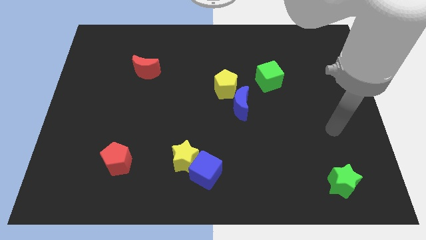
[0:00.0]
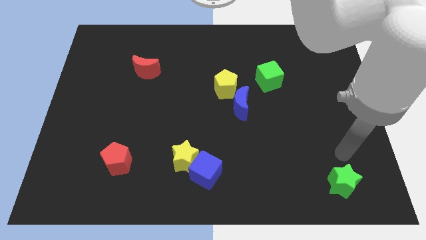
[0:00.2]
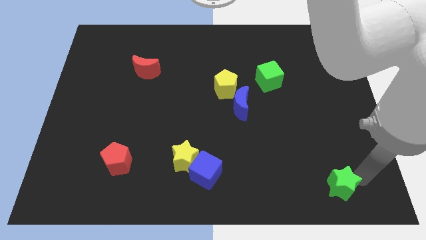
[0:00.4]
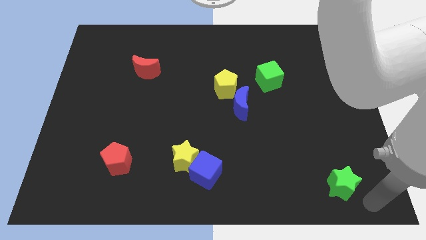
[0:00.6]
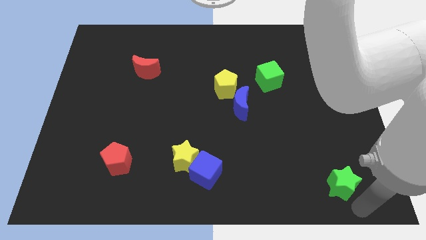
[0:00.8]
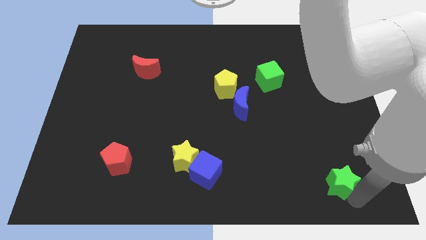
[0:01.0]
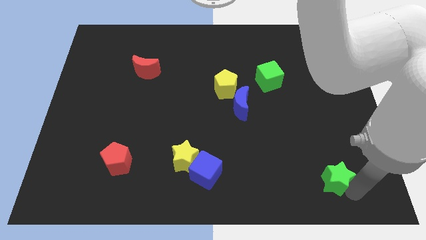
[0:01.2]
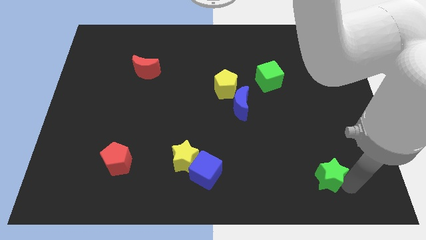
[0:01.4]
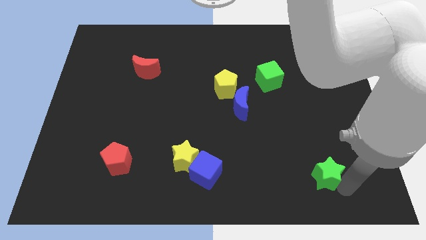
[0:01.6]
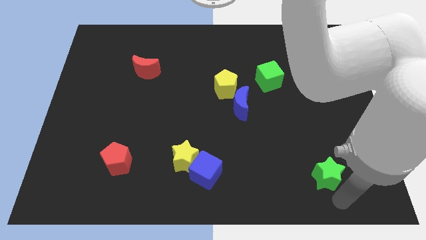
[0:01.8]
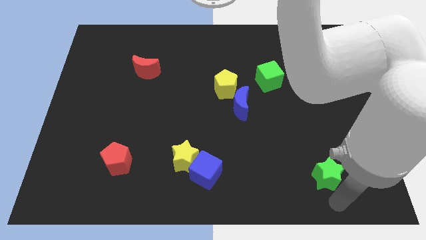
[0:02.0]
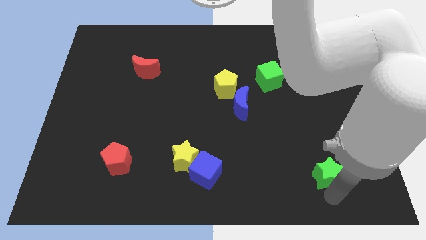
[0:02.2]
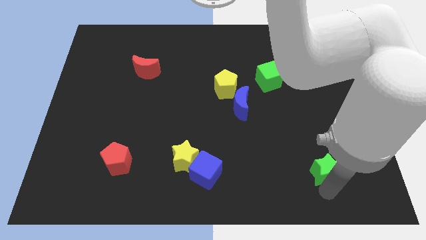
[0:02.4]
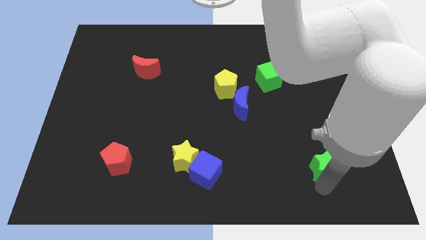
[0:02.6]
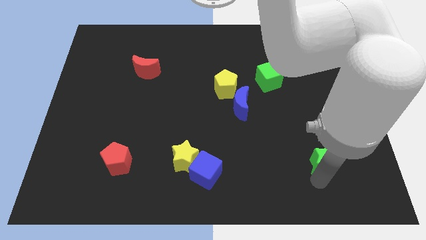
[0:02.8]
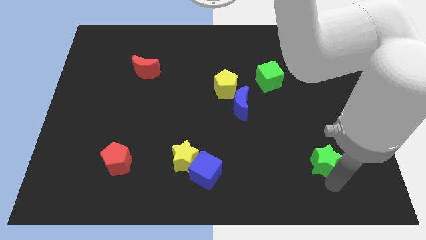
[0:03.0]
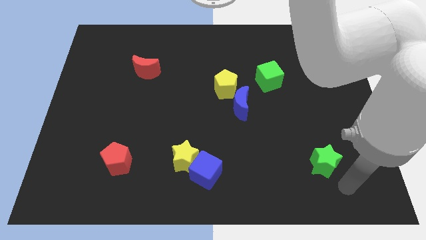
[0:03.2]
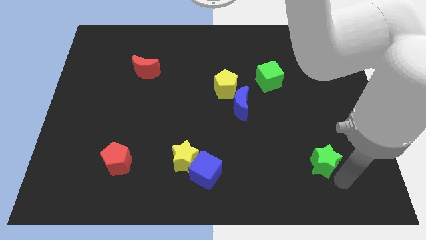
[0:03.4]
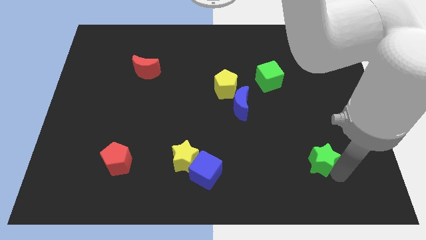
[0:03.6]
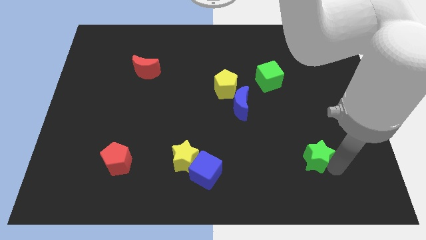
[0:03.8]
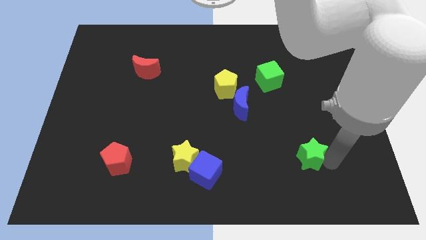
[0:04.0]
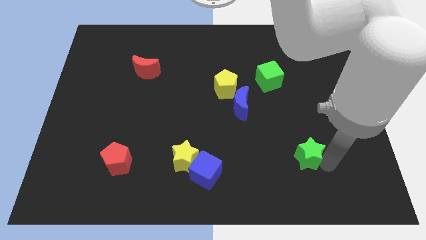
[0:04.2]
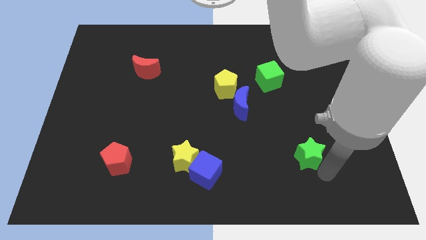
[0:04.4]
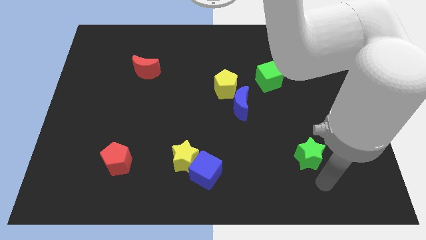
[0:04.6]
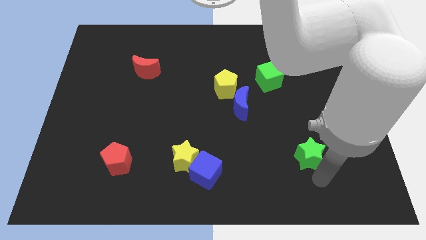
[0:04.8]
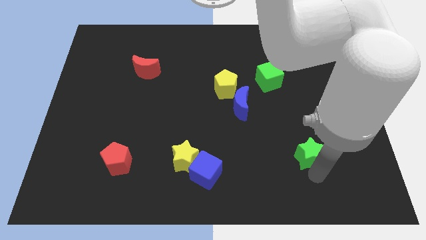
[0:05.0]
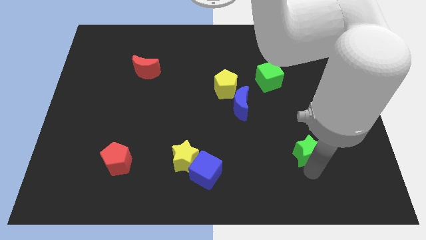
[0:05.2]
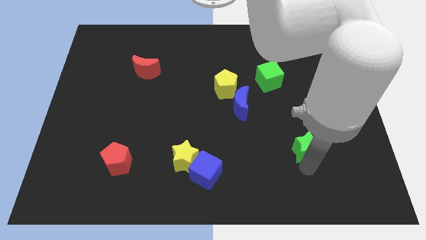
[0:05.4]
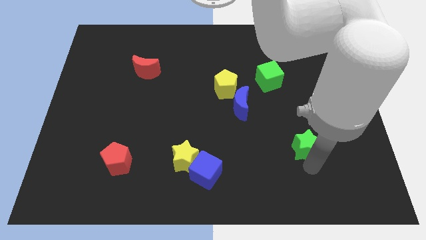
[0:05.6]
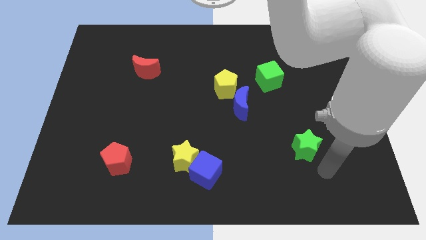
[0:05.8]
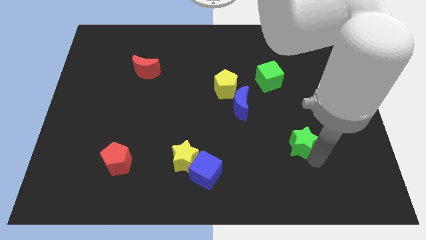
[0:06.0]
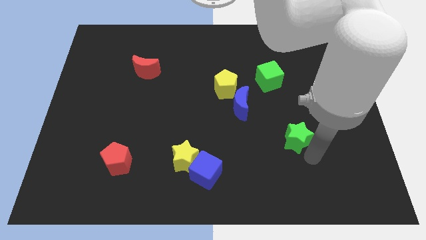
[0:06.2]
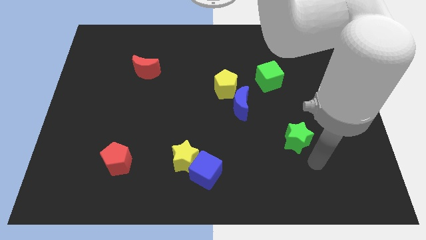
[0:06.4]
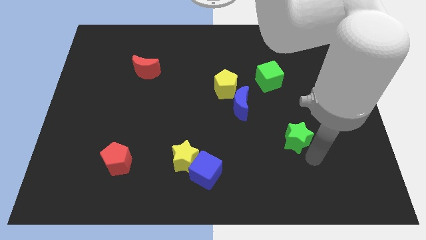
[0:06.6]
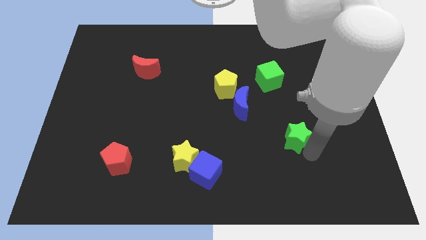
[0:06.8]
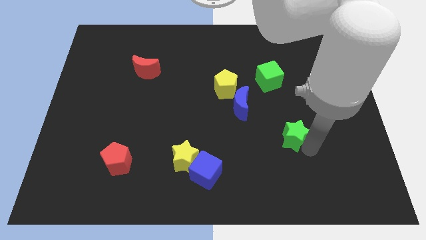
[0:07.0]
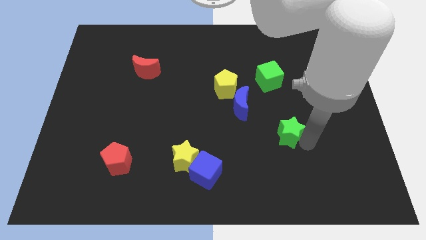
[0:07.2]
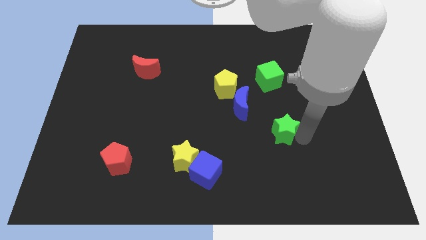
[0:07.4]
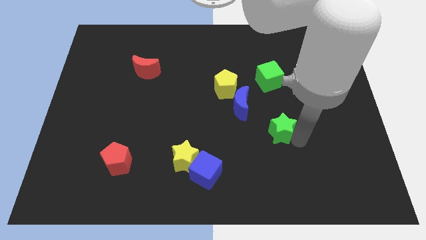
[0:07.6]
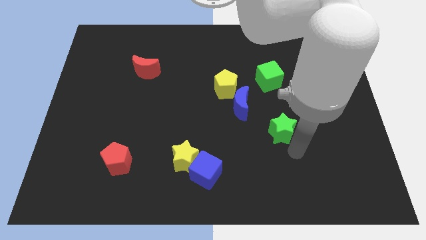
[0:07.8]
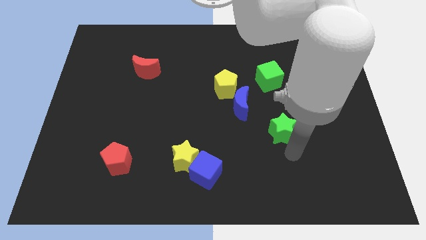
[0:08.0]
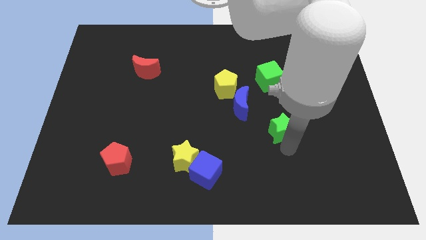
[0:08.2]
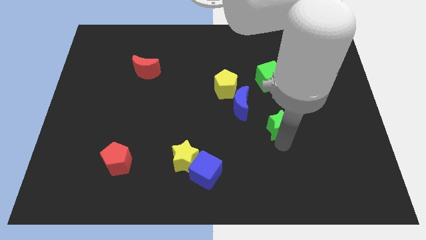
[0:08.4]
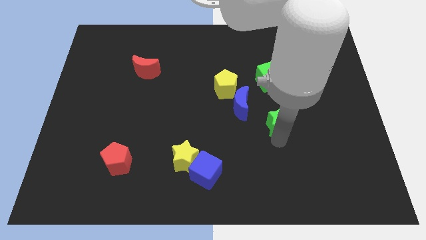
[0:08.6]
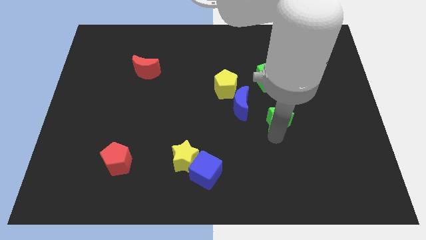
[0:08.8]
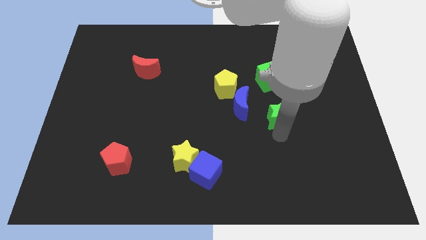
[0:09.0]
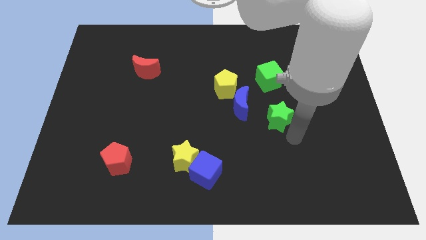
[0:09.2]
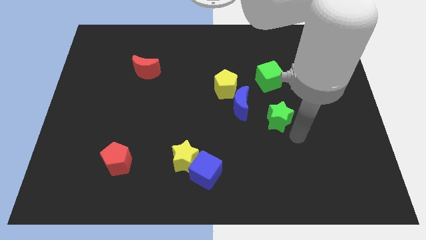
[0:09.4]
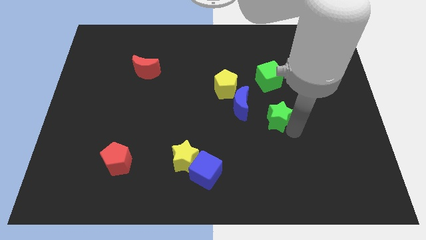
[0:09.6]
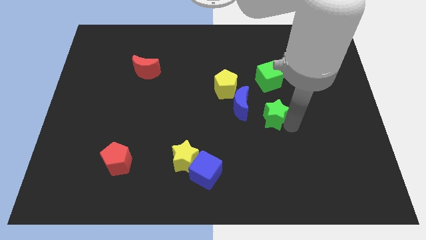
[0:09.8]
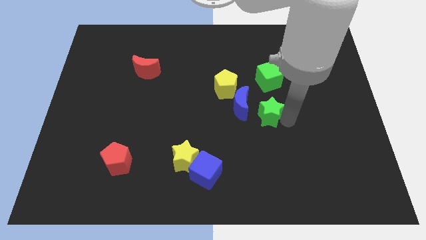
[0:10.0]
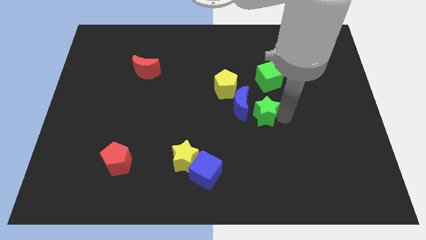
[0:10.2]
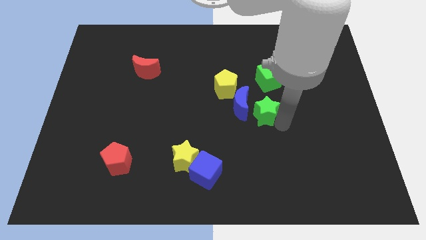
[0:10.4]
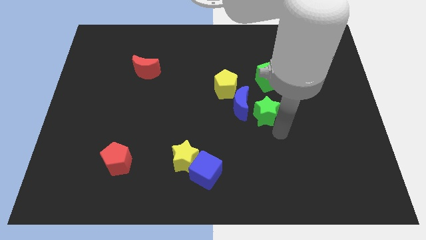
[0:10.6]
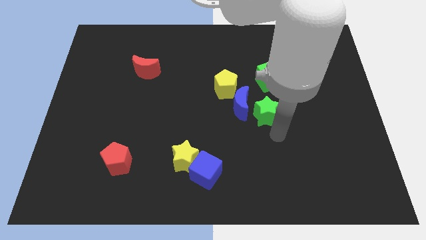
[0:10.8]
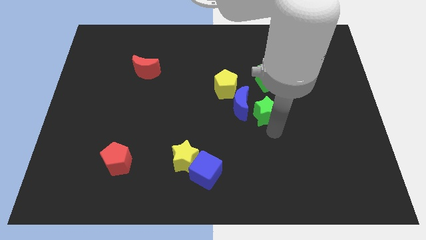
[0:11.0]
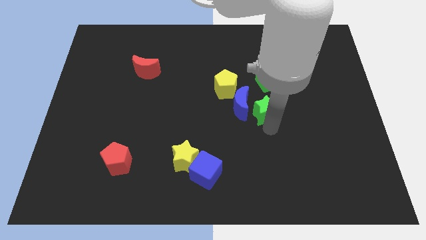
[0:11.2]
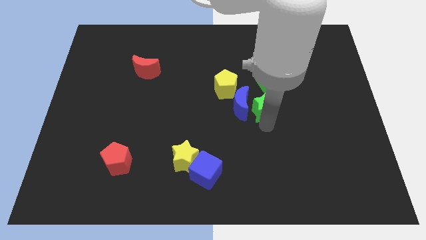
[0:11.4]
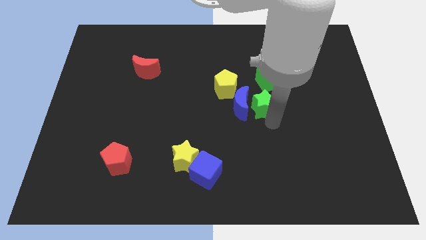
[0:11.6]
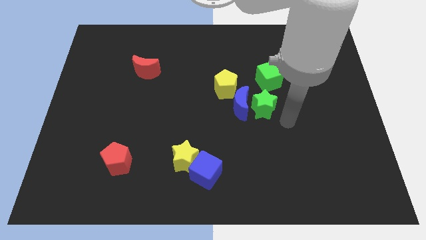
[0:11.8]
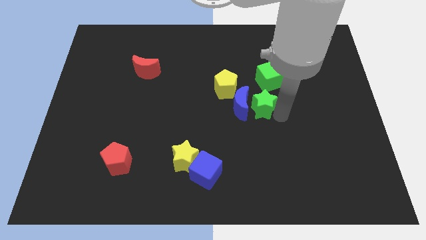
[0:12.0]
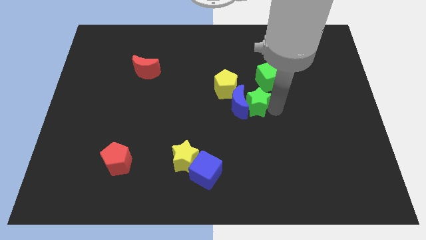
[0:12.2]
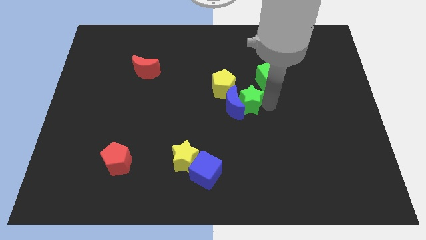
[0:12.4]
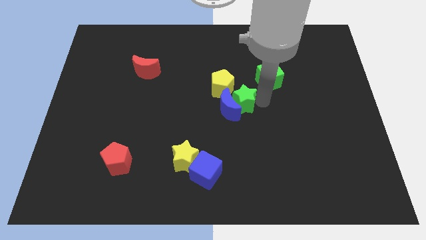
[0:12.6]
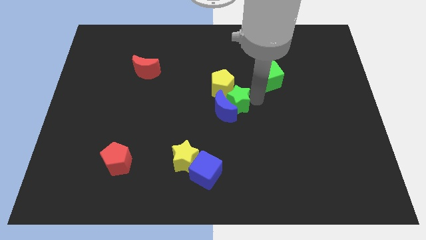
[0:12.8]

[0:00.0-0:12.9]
slide the green star to the yellow pentagon

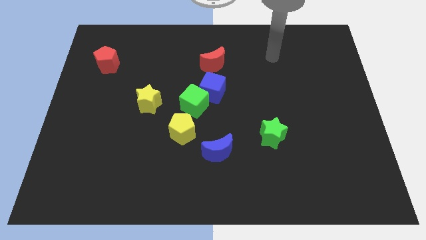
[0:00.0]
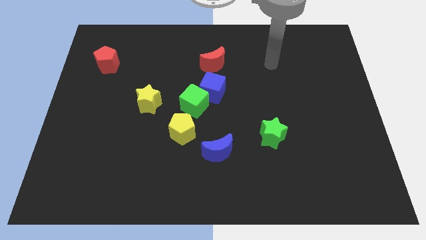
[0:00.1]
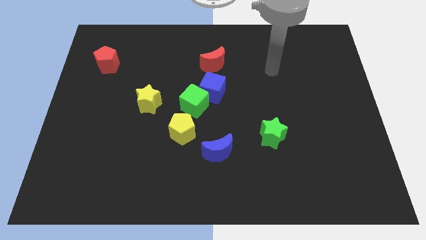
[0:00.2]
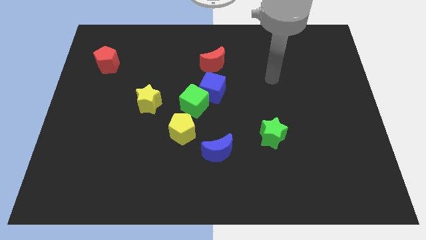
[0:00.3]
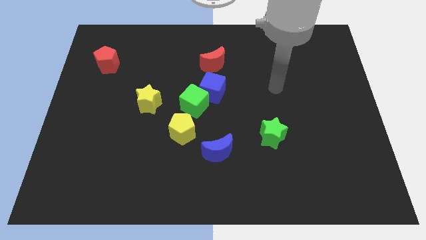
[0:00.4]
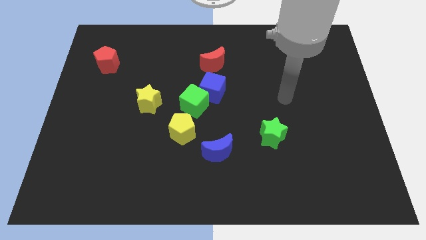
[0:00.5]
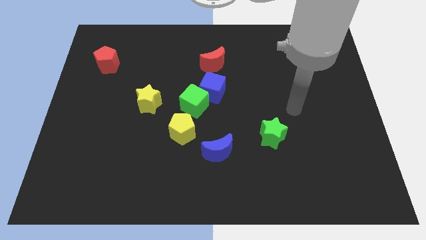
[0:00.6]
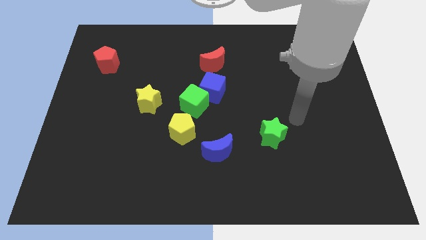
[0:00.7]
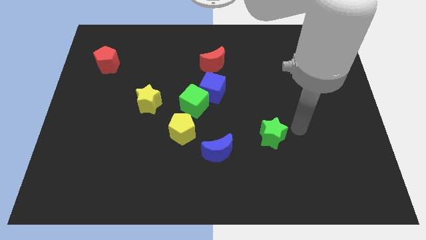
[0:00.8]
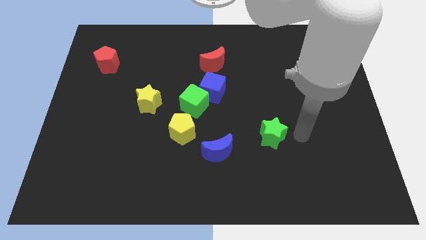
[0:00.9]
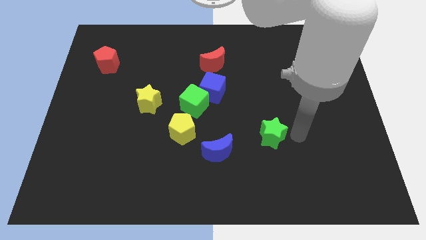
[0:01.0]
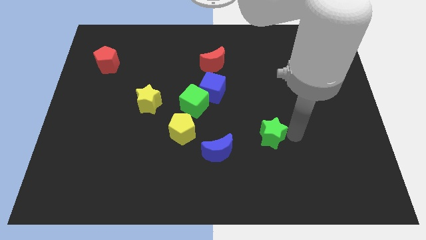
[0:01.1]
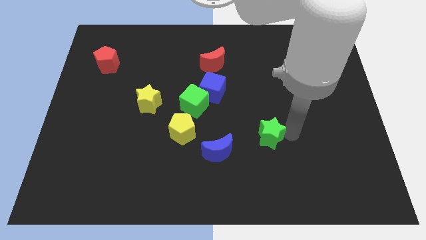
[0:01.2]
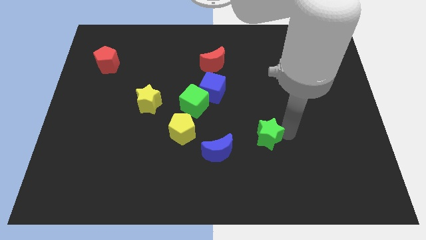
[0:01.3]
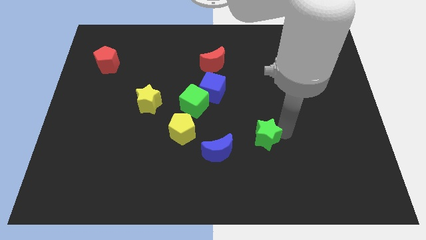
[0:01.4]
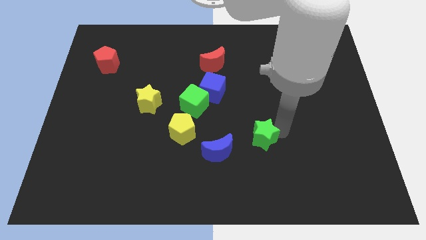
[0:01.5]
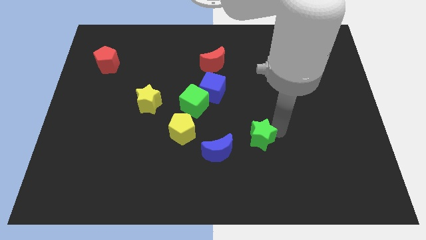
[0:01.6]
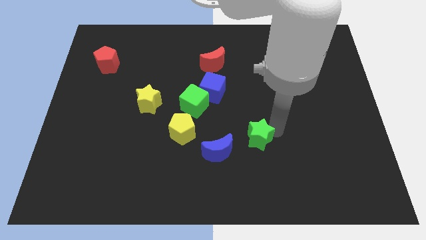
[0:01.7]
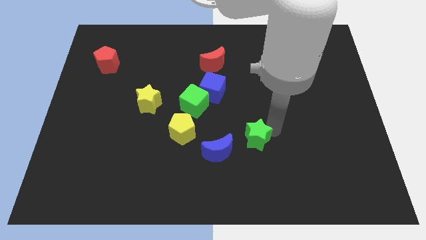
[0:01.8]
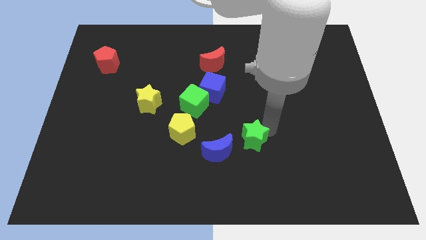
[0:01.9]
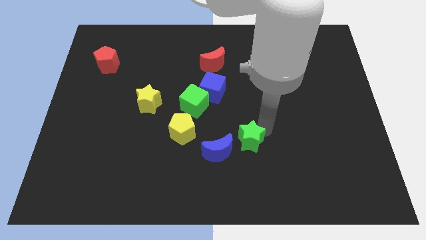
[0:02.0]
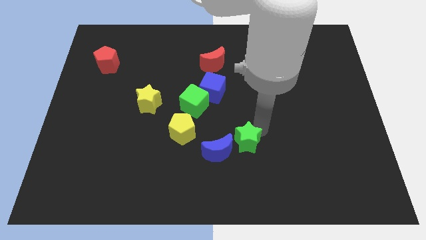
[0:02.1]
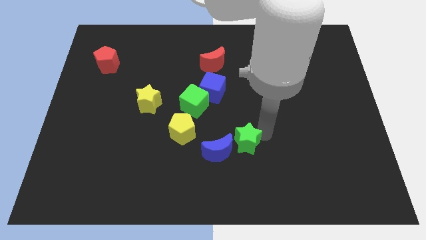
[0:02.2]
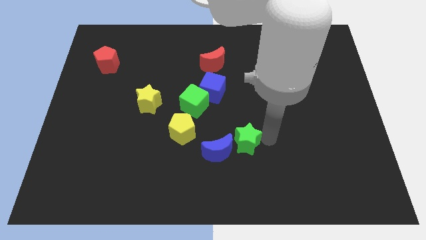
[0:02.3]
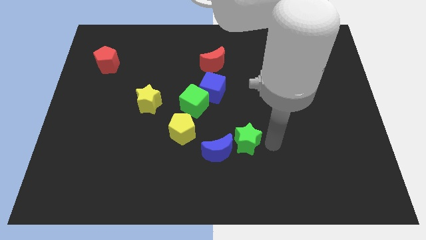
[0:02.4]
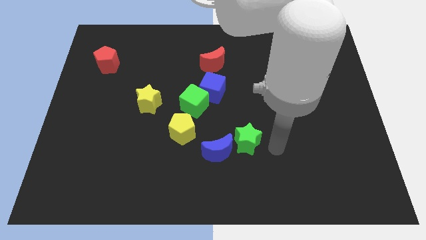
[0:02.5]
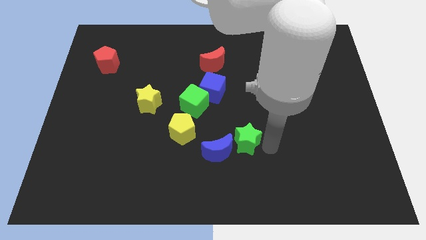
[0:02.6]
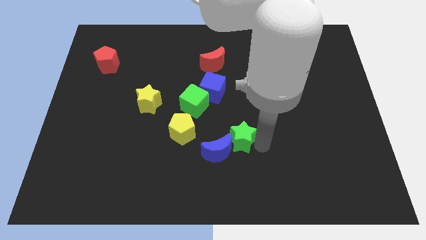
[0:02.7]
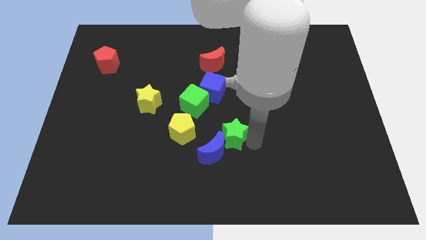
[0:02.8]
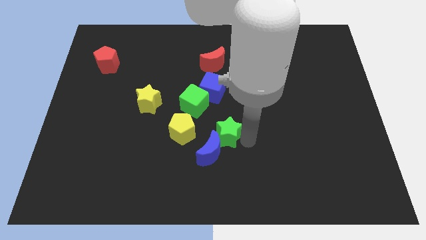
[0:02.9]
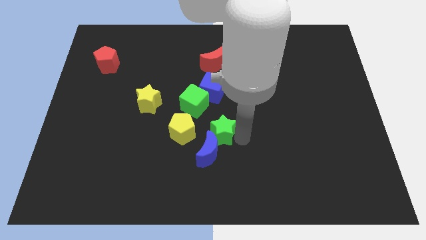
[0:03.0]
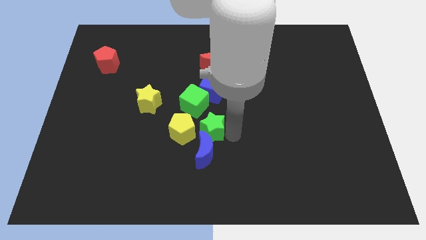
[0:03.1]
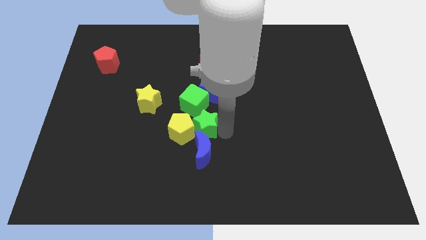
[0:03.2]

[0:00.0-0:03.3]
push the green star next to the yellow pentagon
